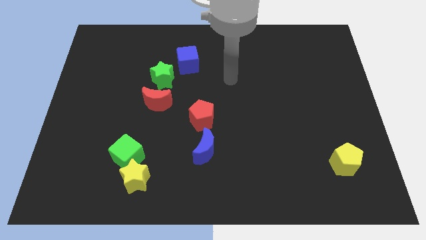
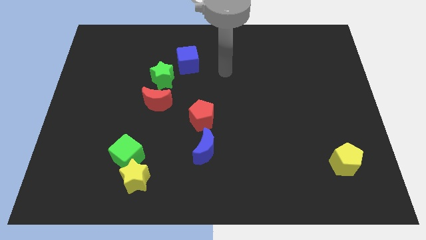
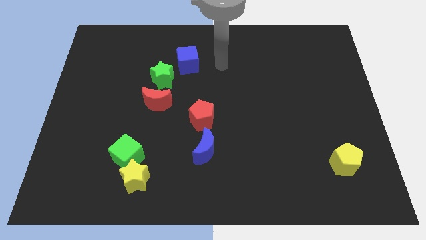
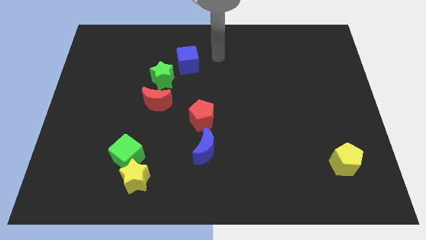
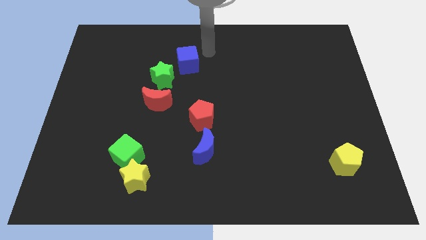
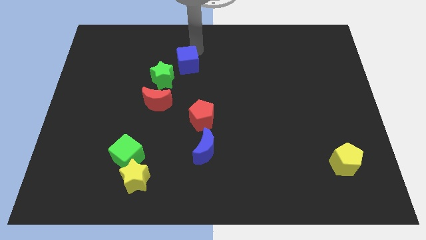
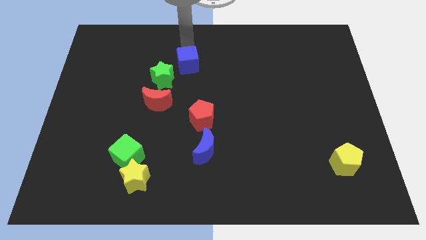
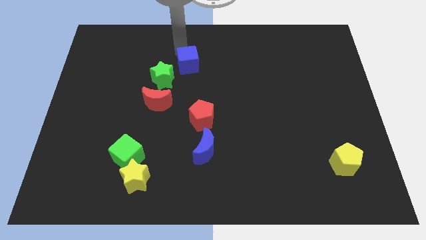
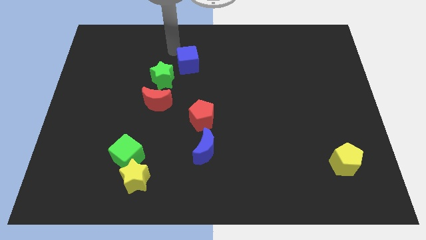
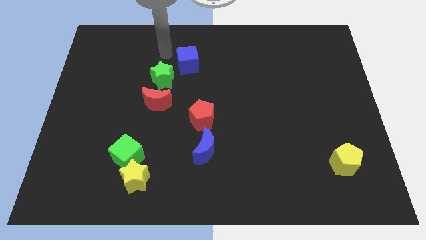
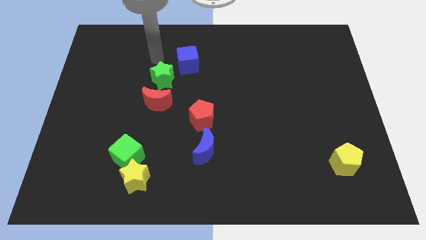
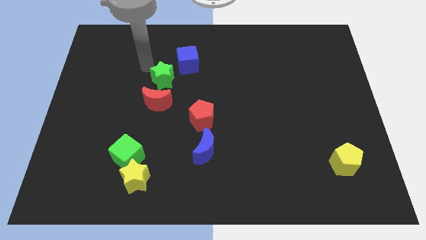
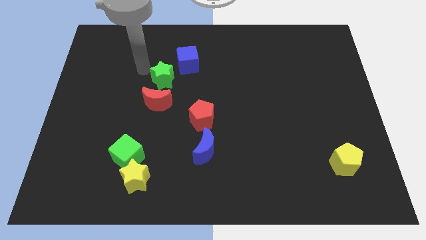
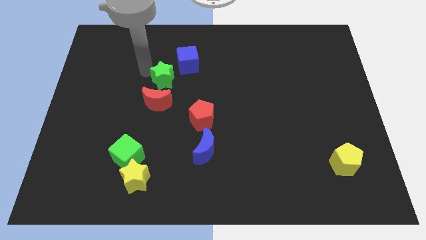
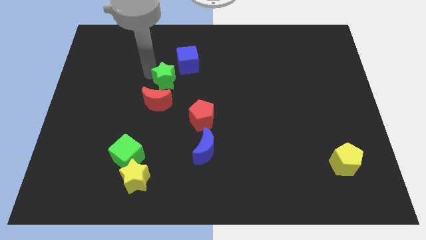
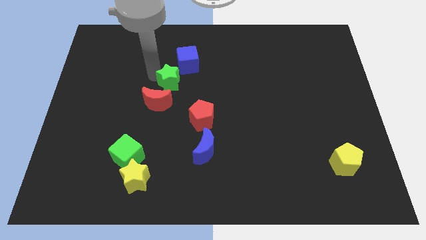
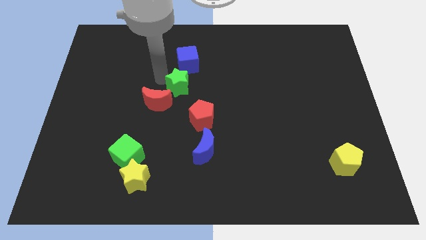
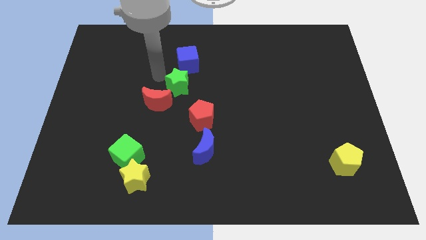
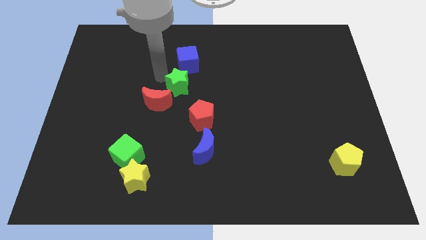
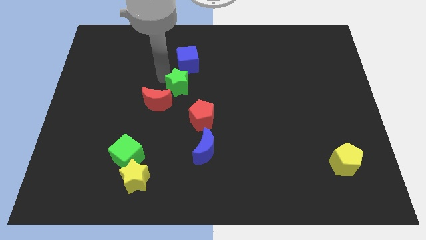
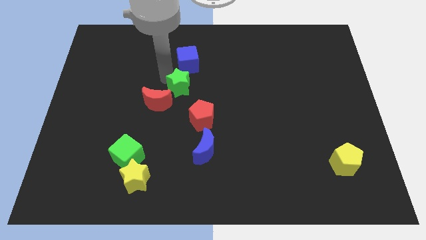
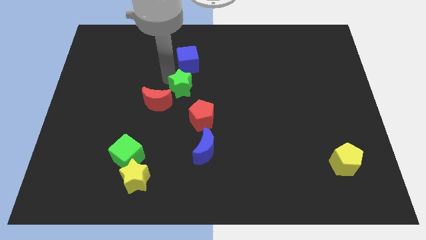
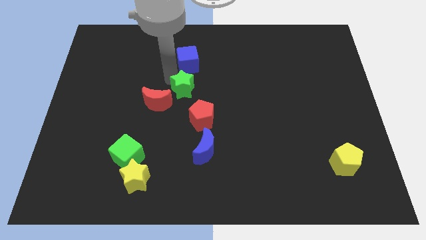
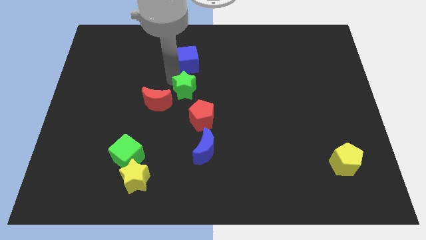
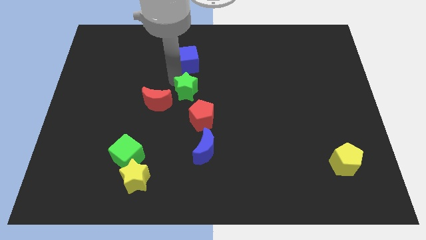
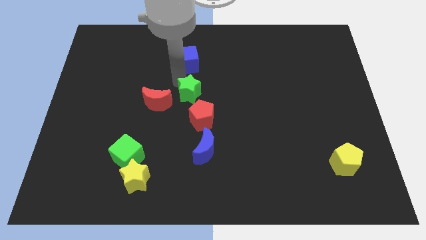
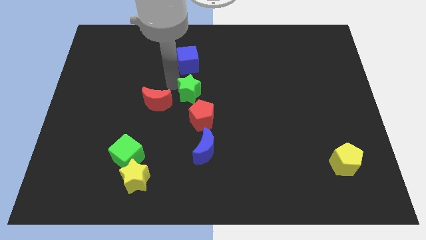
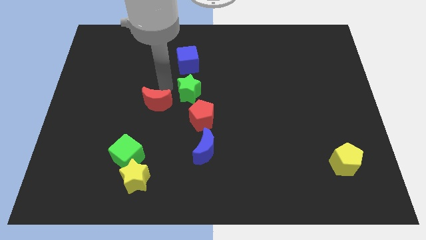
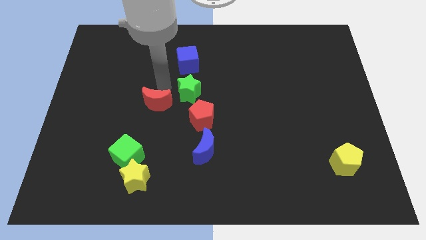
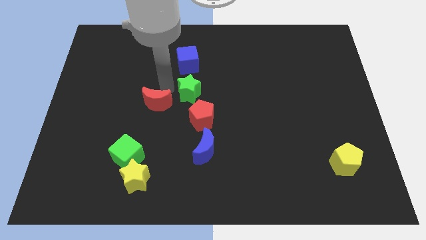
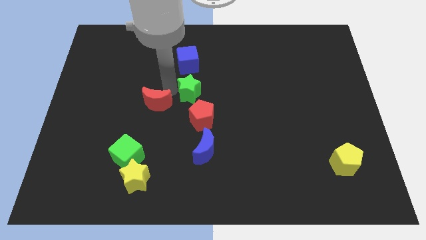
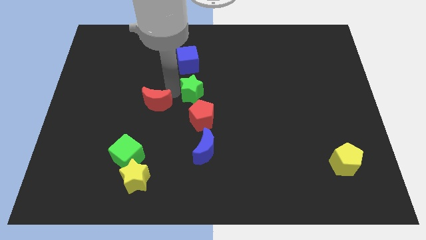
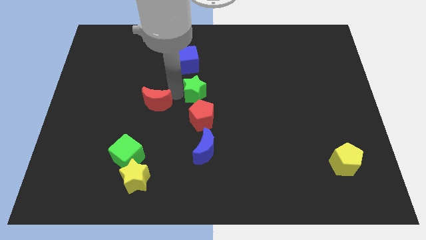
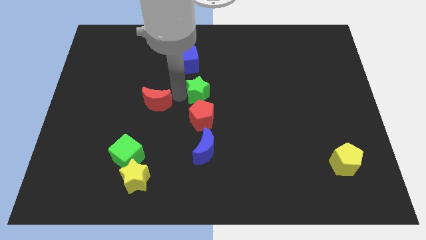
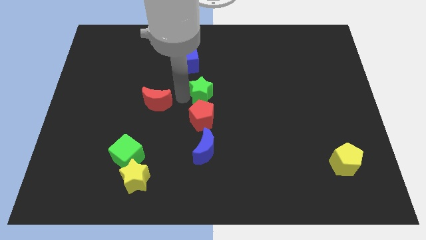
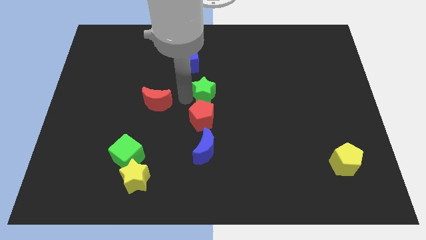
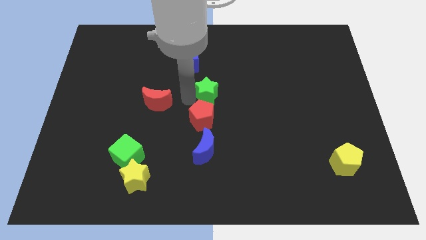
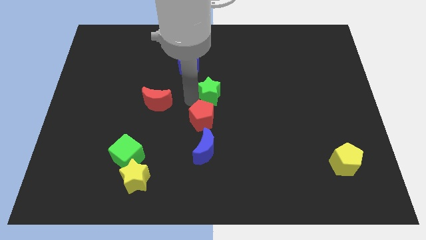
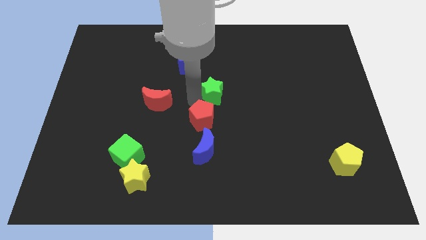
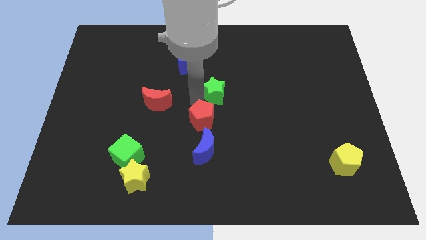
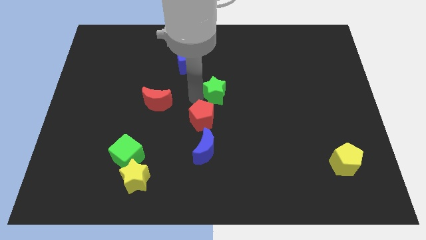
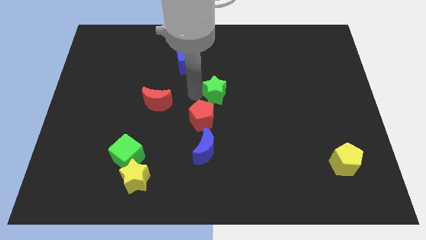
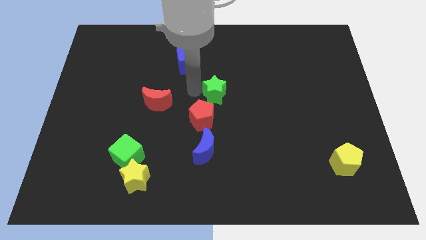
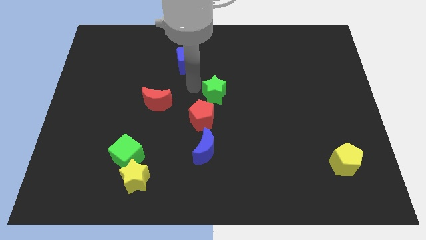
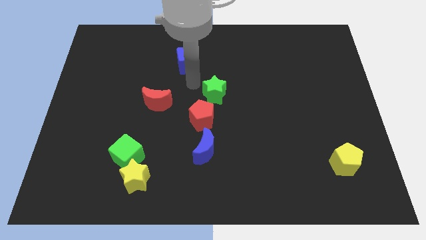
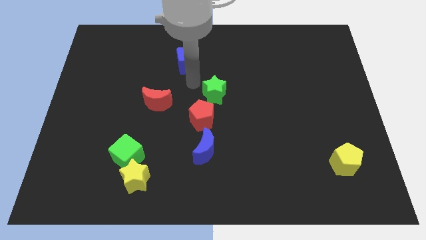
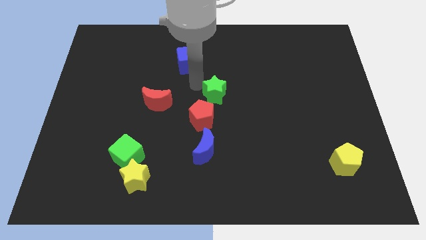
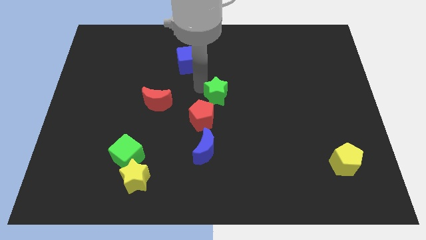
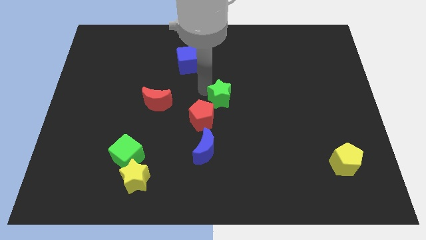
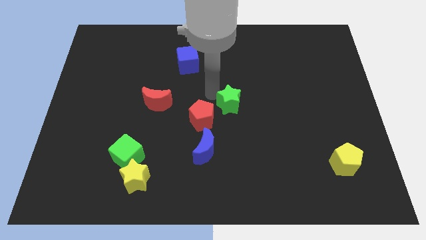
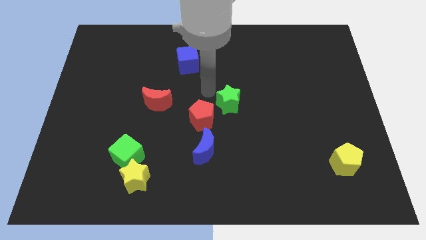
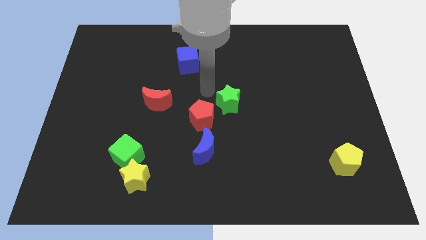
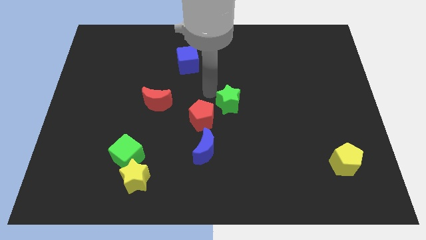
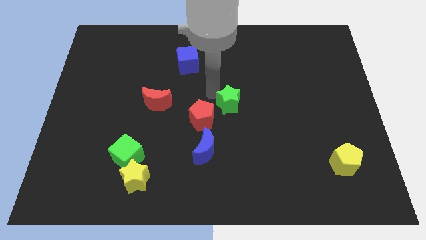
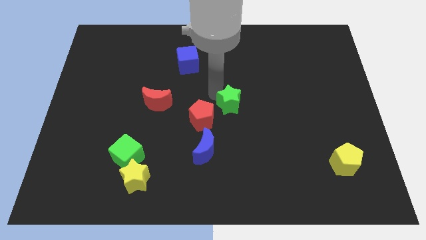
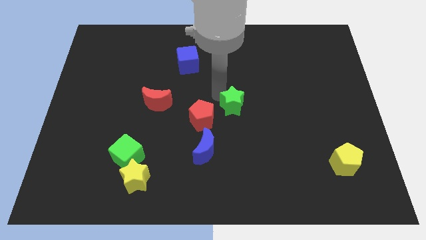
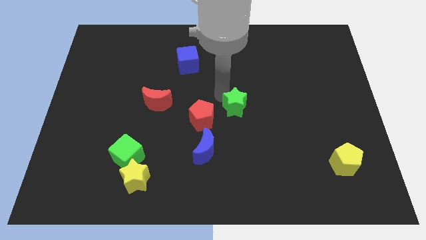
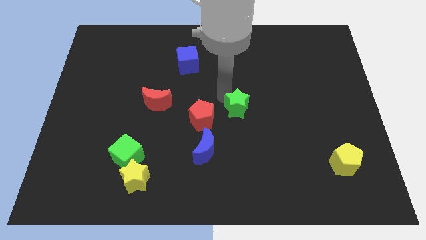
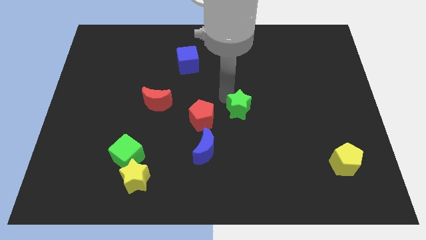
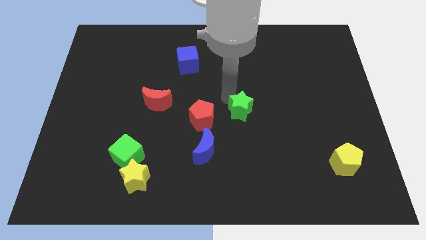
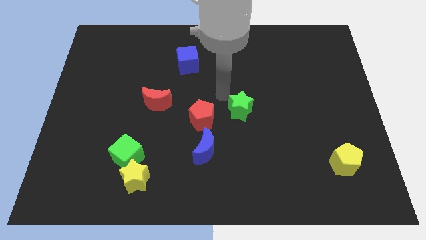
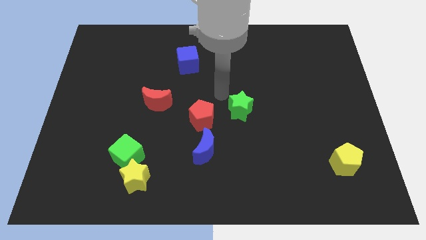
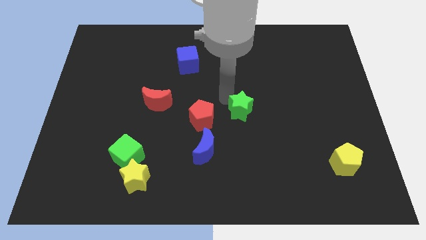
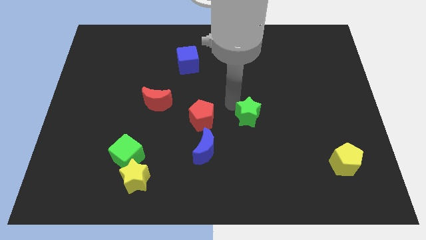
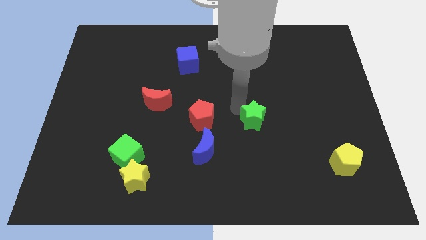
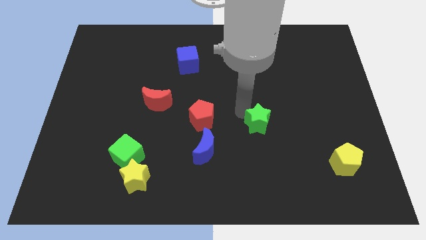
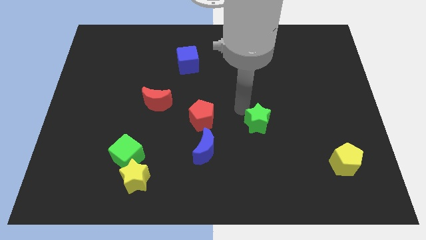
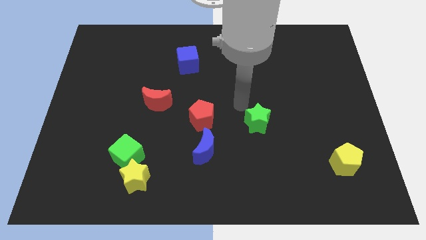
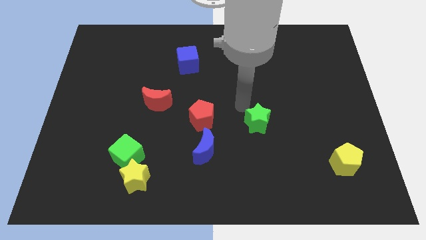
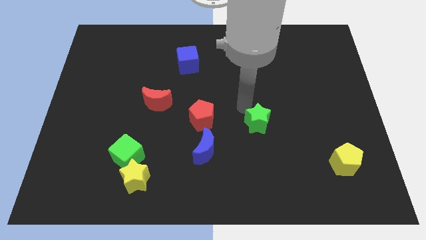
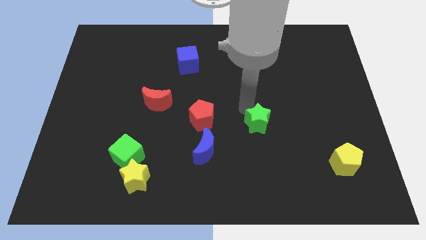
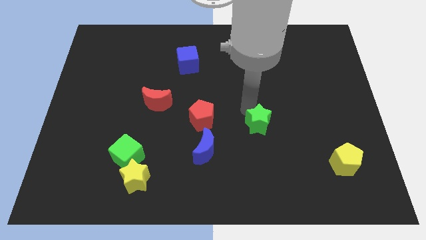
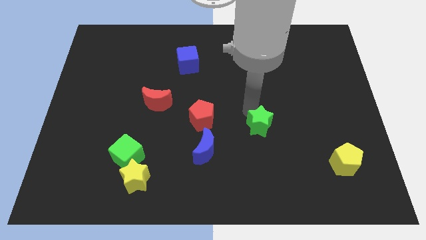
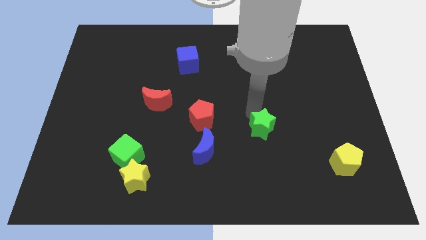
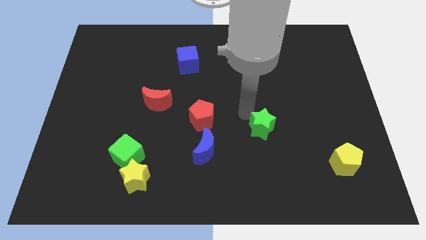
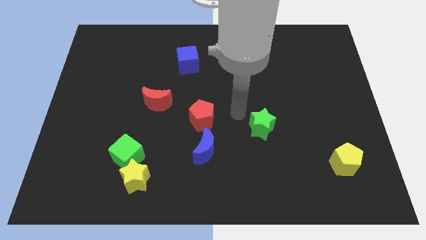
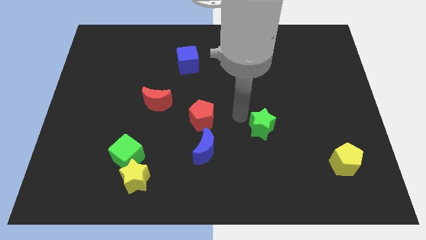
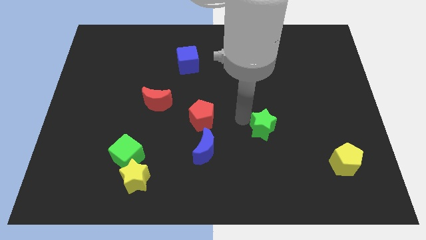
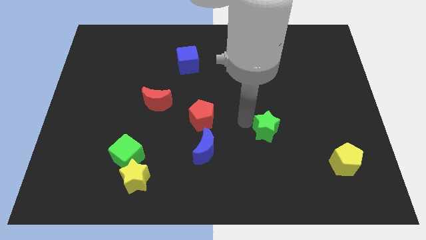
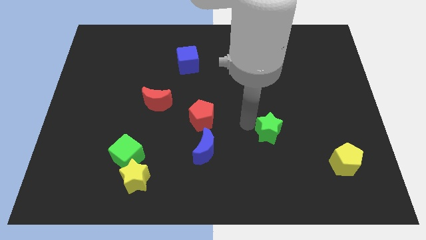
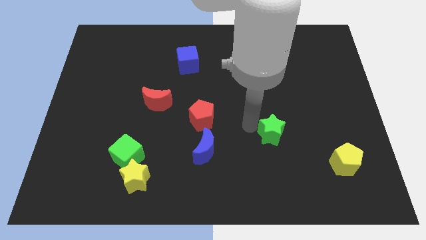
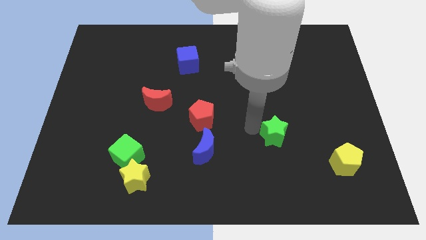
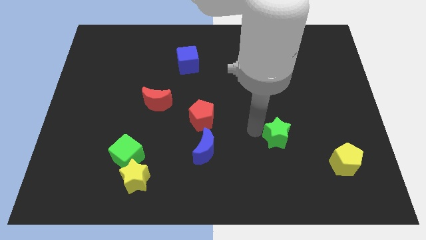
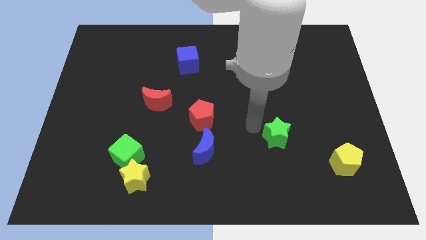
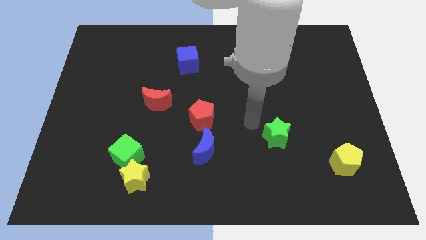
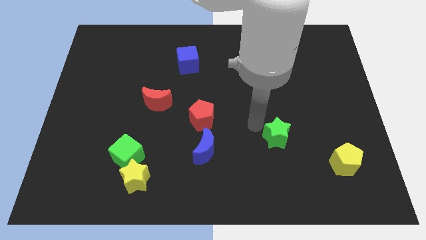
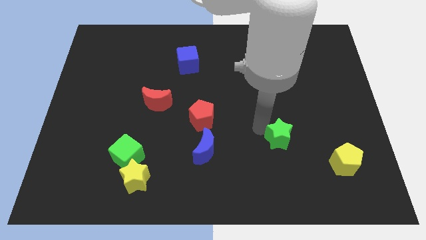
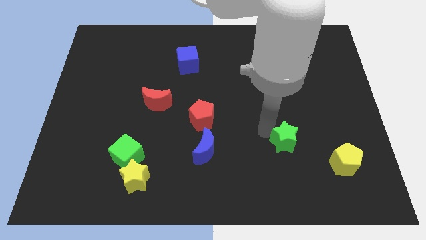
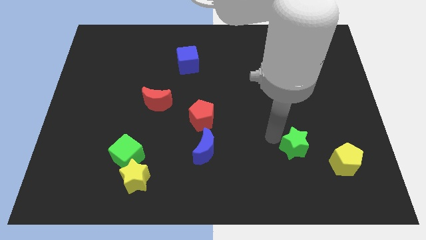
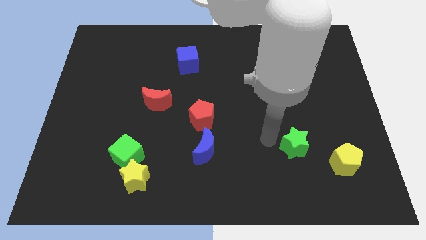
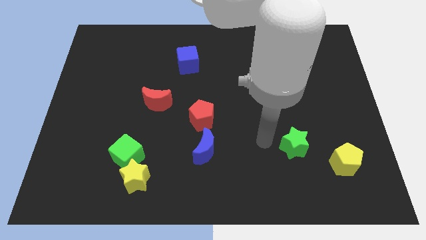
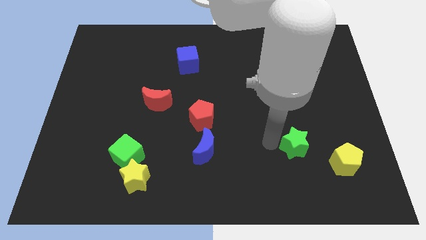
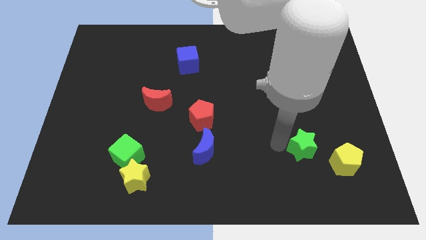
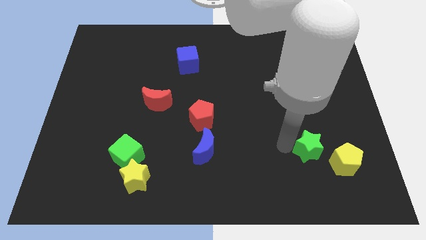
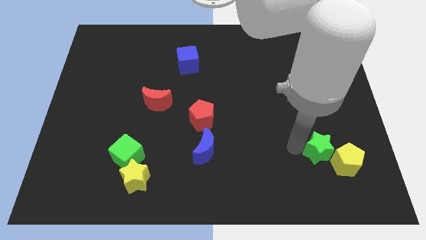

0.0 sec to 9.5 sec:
put the green star next to the yellow pentagon
